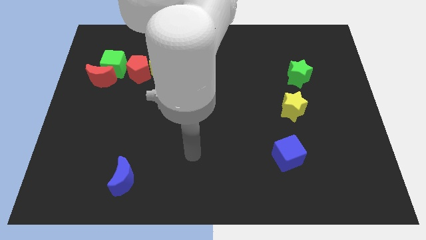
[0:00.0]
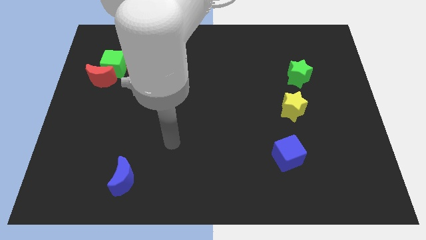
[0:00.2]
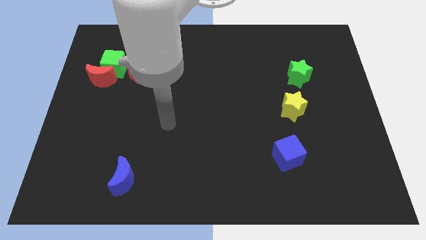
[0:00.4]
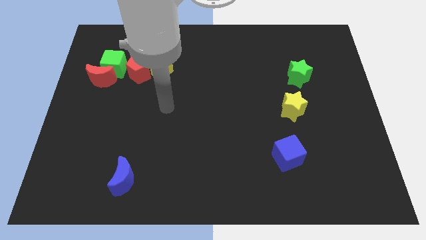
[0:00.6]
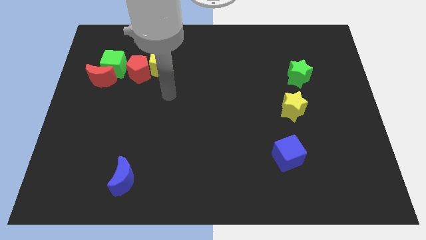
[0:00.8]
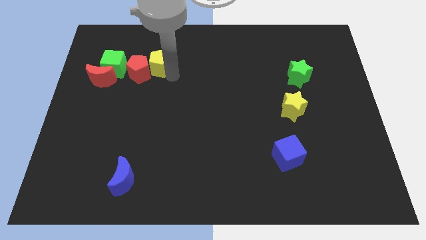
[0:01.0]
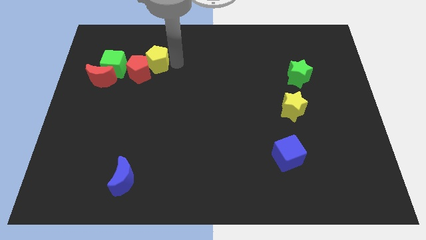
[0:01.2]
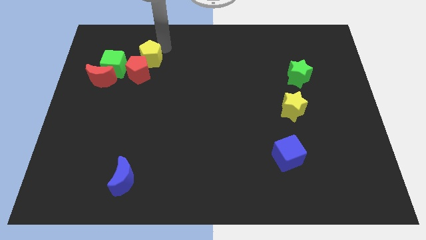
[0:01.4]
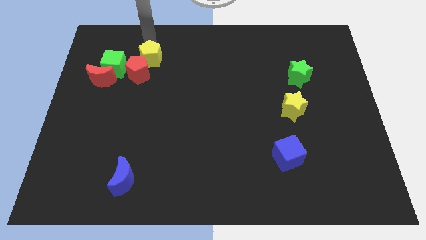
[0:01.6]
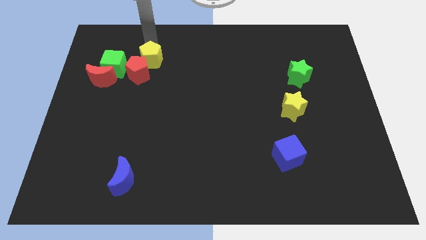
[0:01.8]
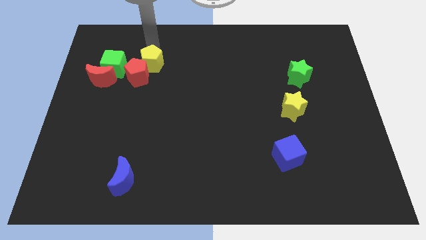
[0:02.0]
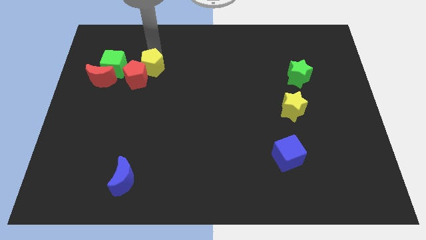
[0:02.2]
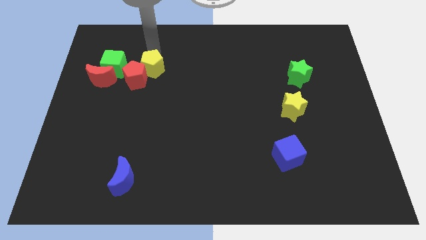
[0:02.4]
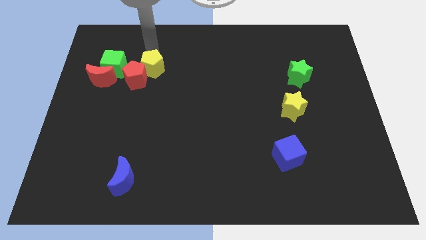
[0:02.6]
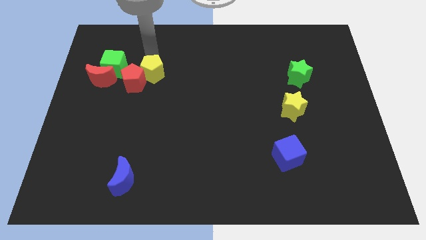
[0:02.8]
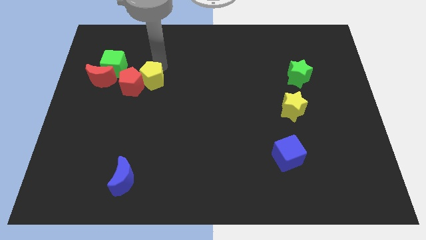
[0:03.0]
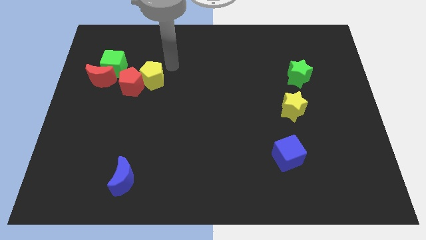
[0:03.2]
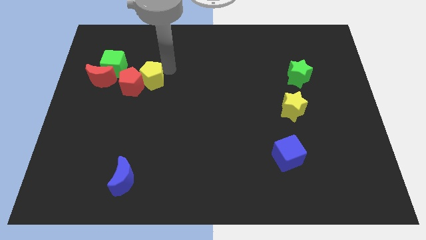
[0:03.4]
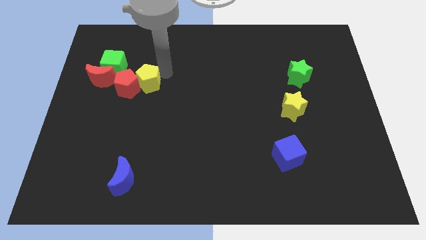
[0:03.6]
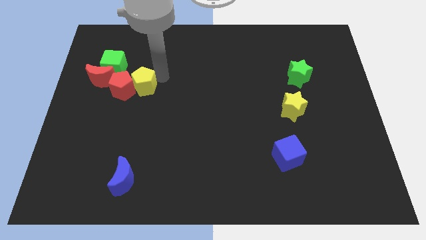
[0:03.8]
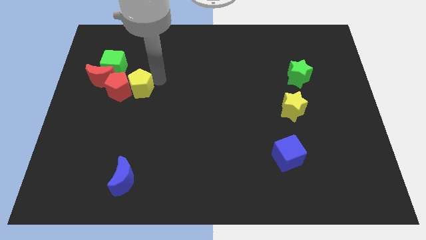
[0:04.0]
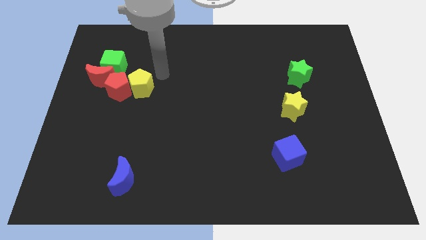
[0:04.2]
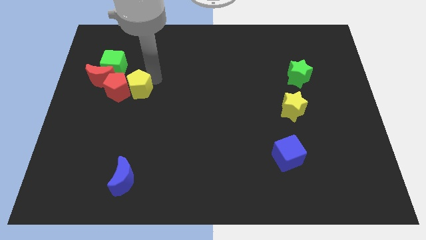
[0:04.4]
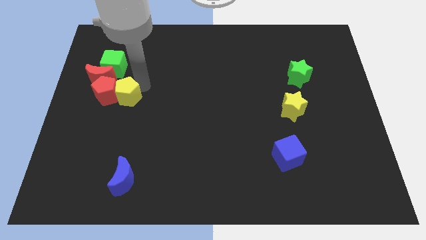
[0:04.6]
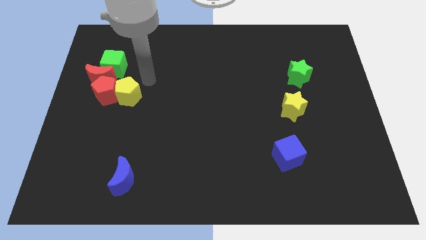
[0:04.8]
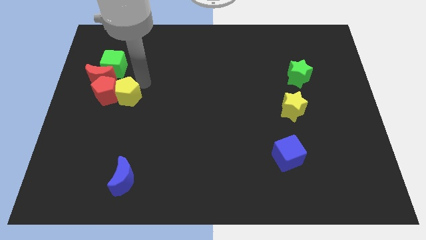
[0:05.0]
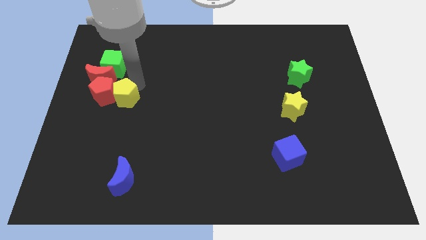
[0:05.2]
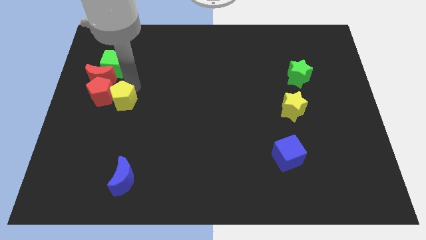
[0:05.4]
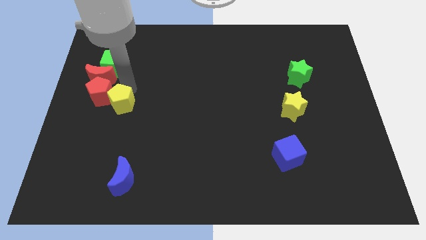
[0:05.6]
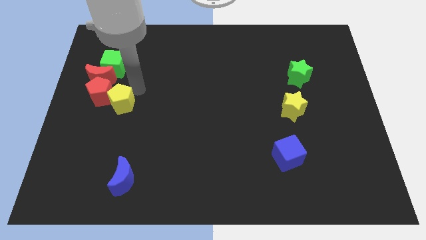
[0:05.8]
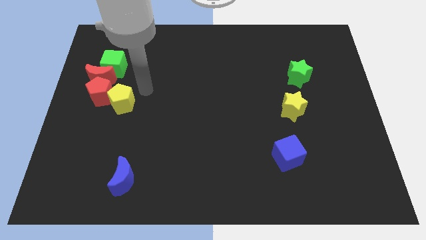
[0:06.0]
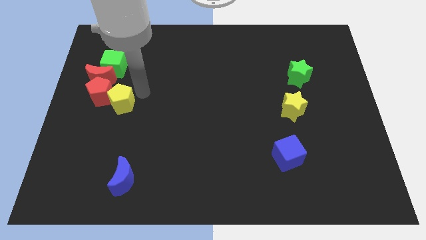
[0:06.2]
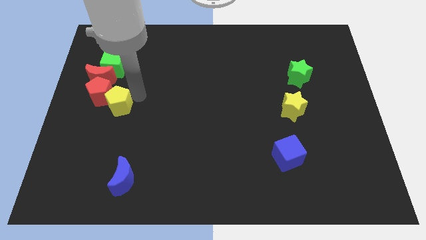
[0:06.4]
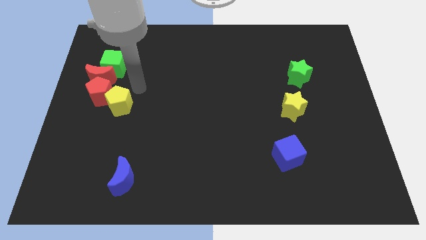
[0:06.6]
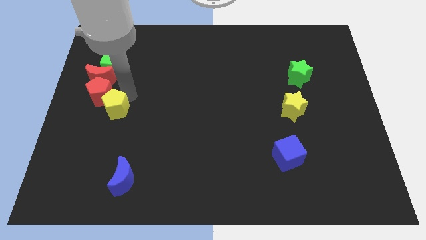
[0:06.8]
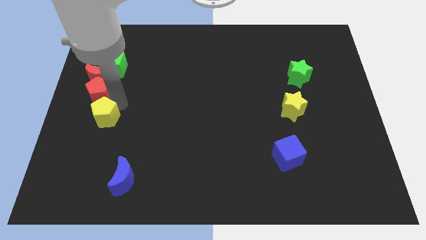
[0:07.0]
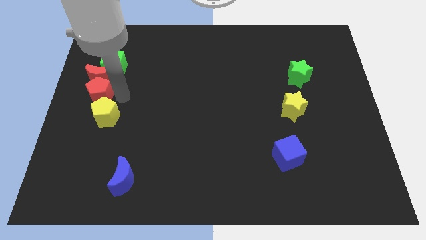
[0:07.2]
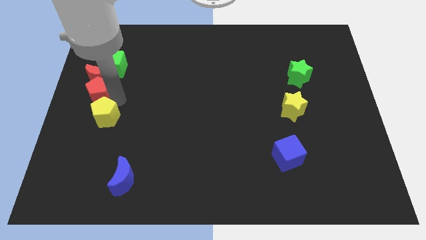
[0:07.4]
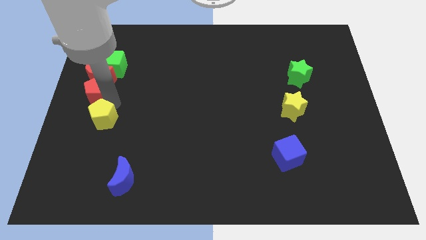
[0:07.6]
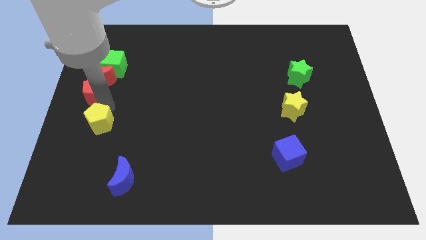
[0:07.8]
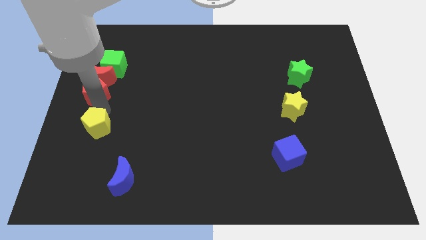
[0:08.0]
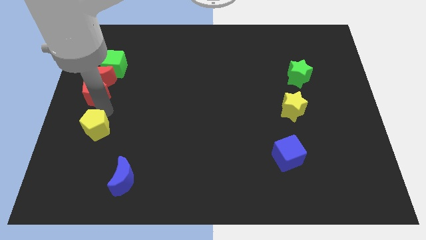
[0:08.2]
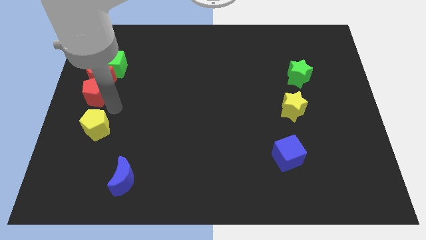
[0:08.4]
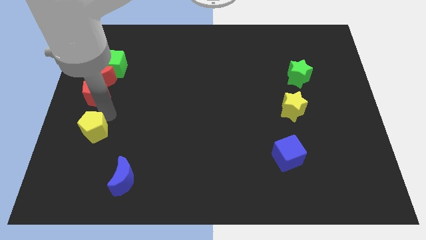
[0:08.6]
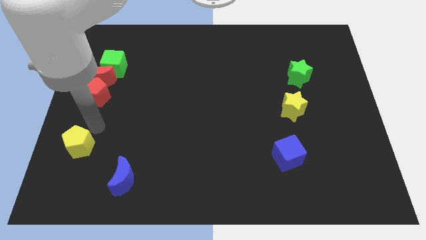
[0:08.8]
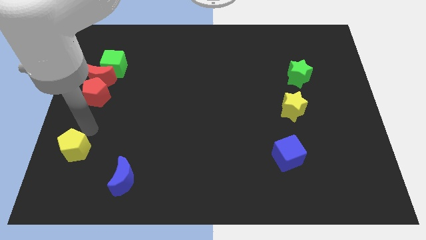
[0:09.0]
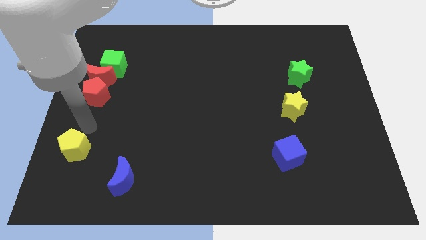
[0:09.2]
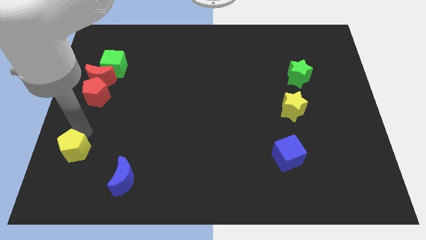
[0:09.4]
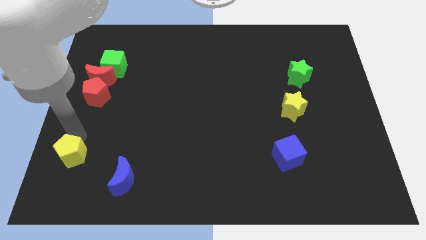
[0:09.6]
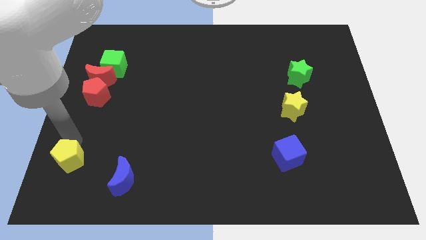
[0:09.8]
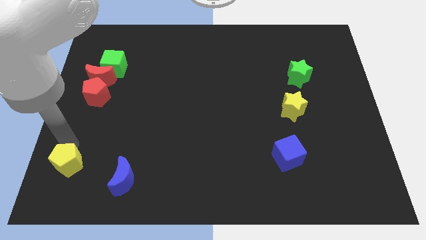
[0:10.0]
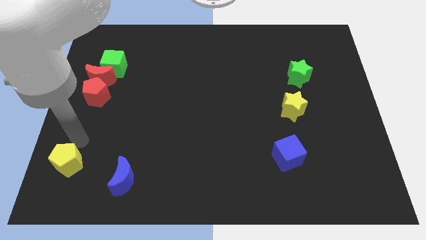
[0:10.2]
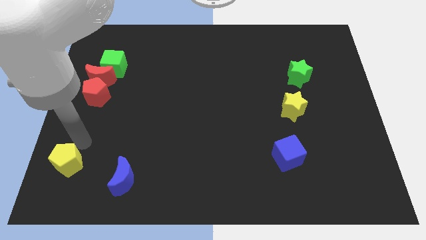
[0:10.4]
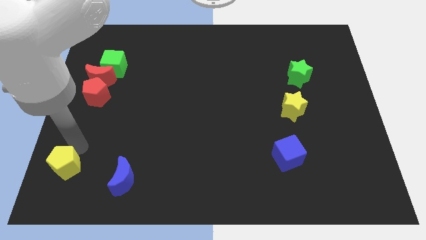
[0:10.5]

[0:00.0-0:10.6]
slide the yellow pentagon to the lower left corner
